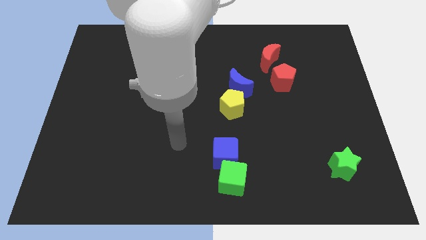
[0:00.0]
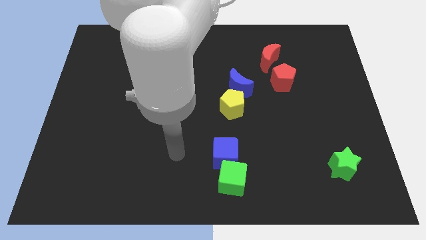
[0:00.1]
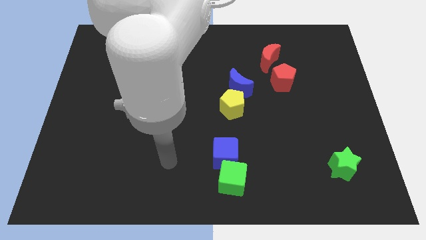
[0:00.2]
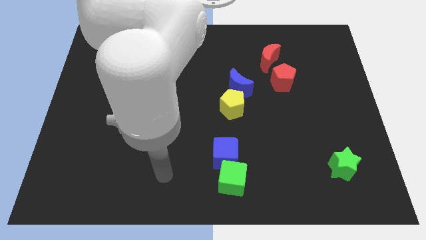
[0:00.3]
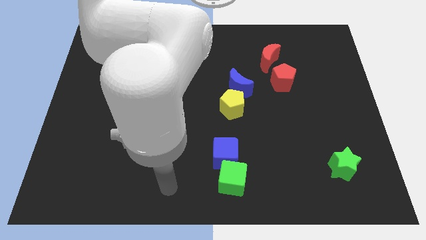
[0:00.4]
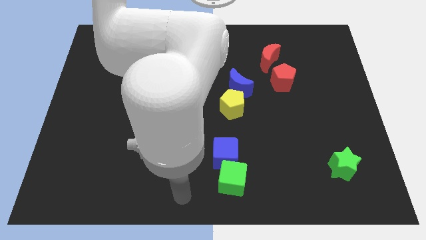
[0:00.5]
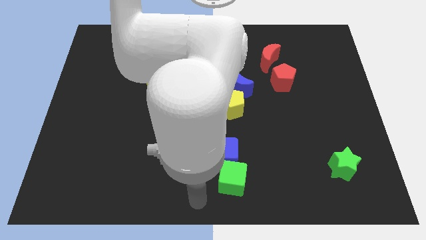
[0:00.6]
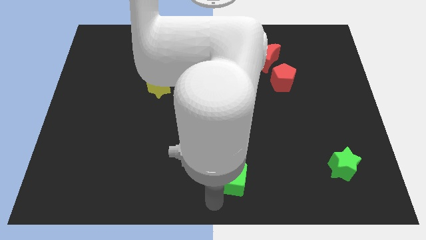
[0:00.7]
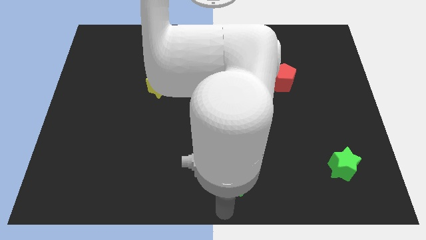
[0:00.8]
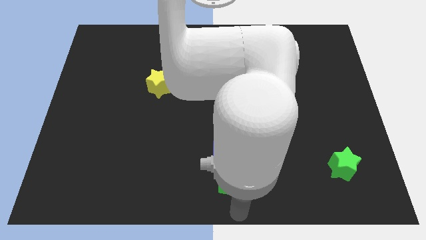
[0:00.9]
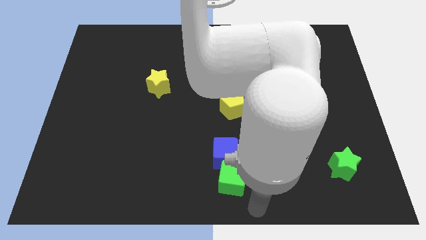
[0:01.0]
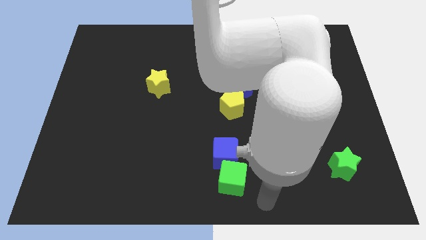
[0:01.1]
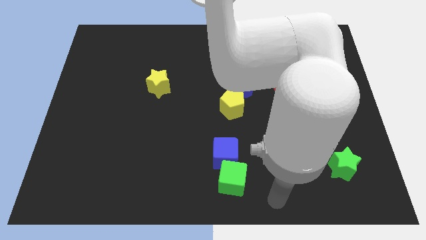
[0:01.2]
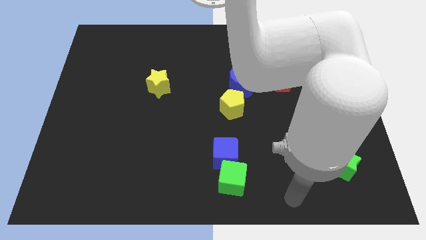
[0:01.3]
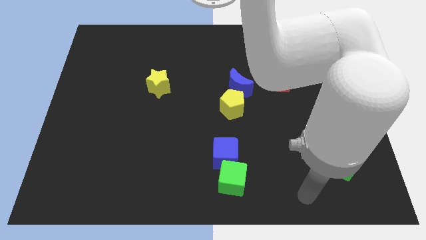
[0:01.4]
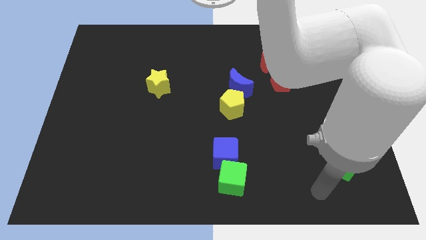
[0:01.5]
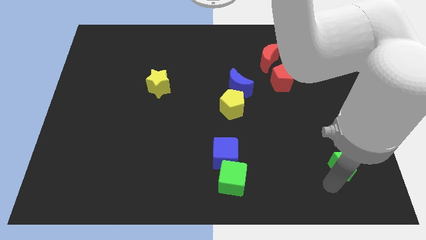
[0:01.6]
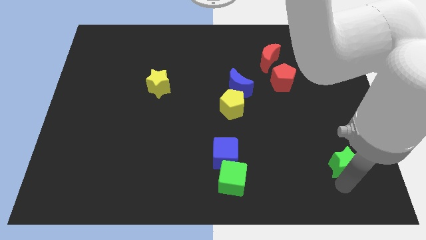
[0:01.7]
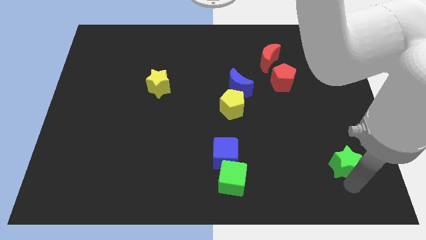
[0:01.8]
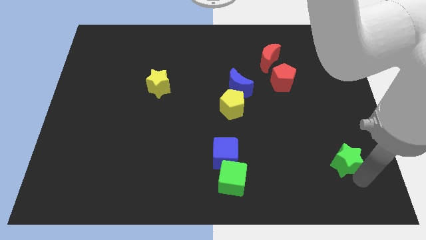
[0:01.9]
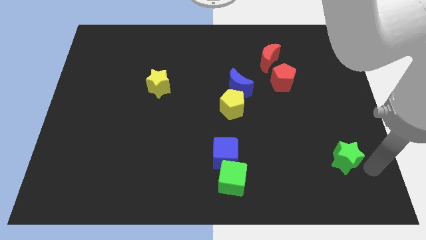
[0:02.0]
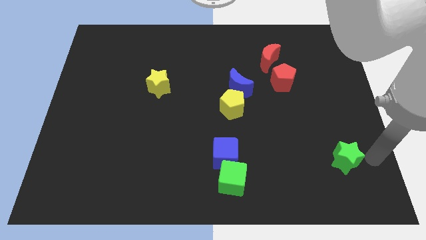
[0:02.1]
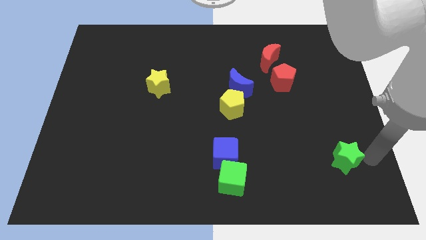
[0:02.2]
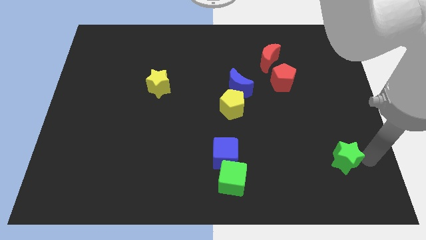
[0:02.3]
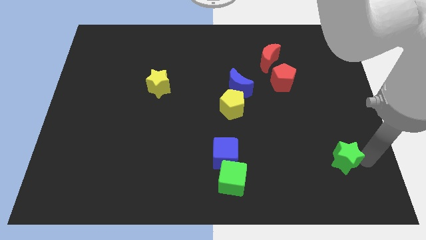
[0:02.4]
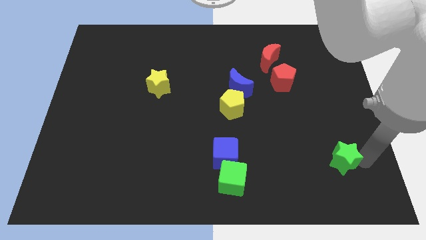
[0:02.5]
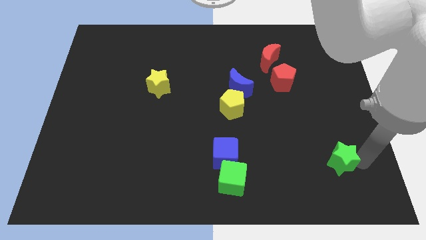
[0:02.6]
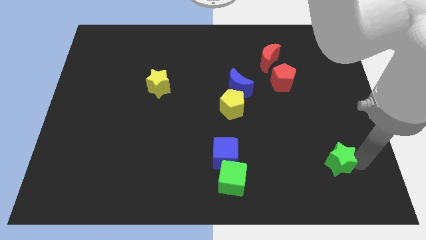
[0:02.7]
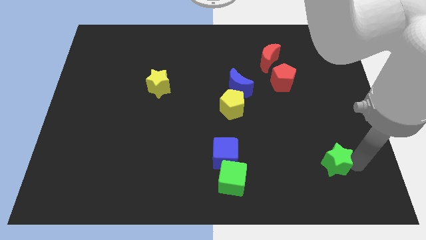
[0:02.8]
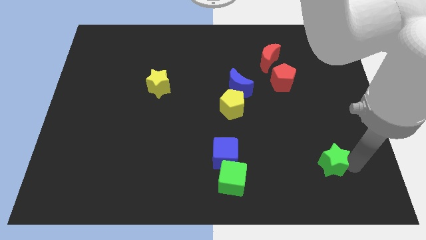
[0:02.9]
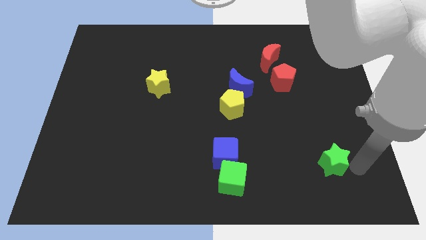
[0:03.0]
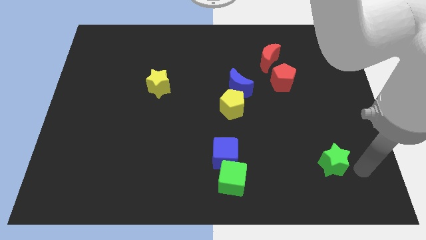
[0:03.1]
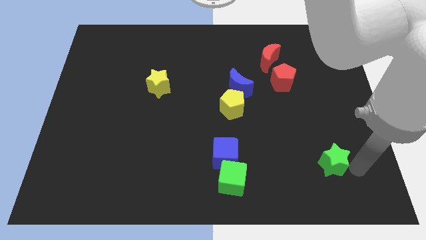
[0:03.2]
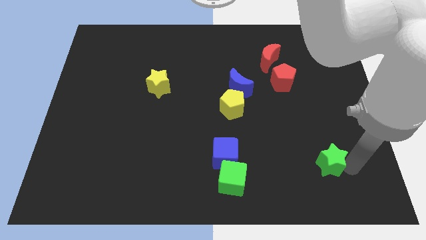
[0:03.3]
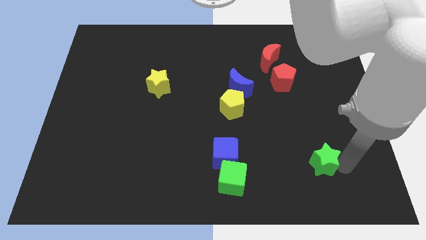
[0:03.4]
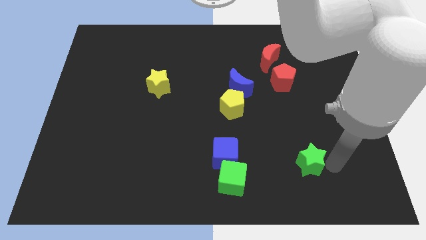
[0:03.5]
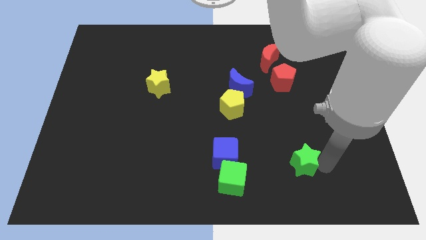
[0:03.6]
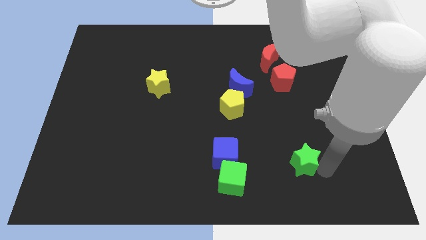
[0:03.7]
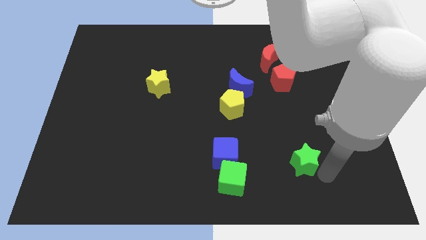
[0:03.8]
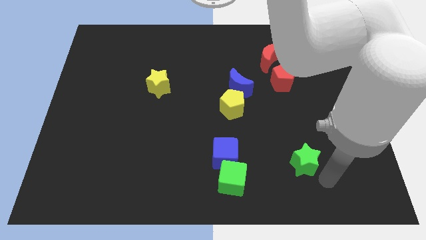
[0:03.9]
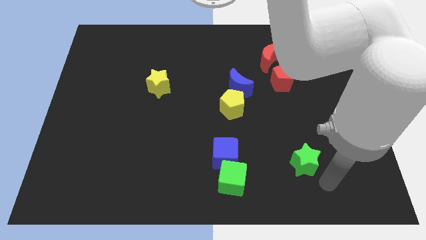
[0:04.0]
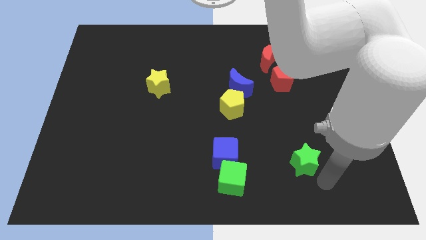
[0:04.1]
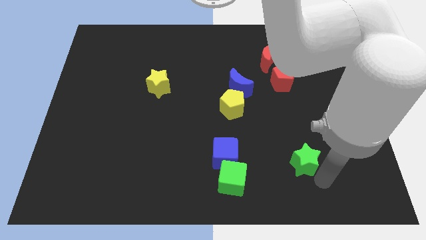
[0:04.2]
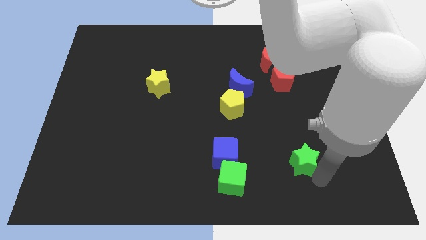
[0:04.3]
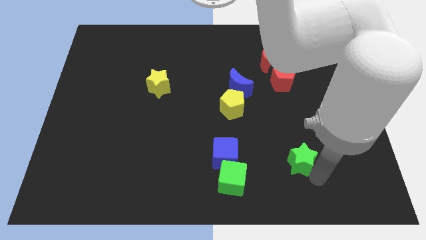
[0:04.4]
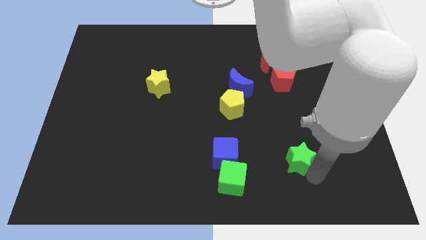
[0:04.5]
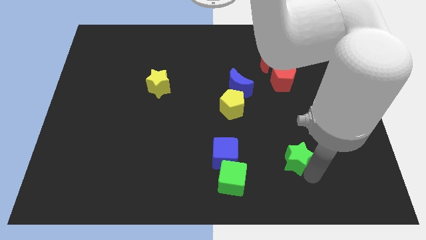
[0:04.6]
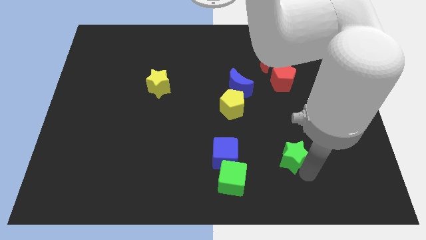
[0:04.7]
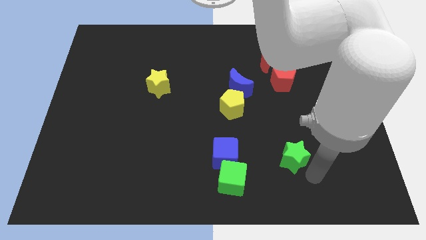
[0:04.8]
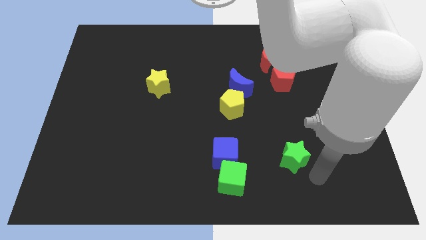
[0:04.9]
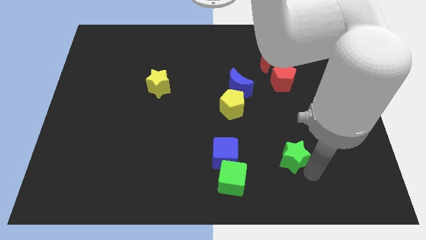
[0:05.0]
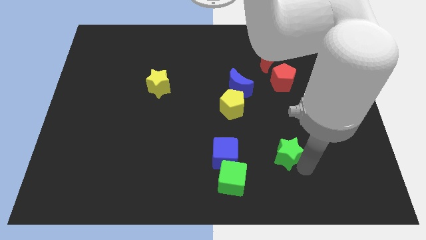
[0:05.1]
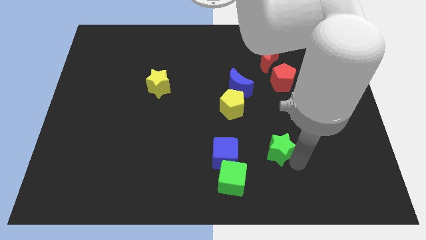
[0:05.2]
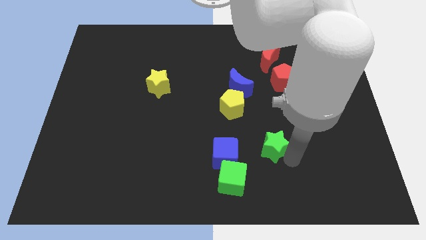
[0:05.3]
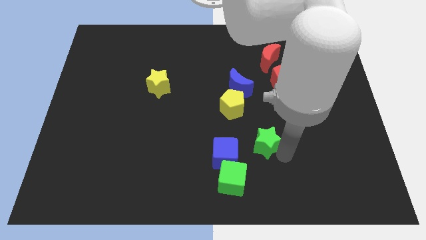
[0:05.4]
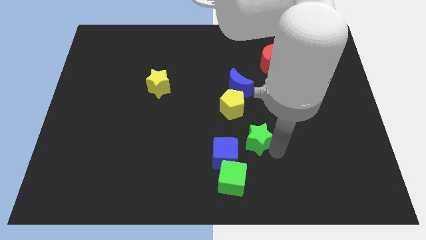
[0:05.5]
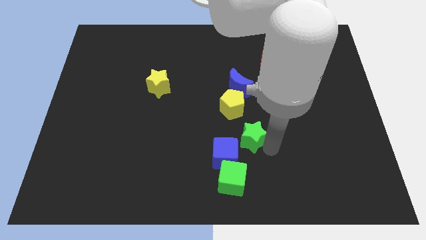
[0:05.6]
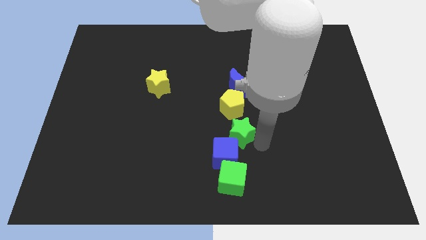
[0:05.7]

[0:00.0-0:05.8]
slide the green star to the center

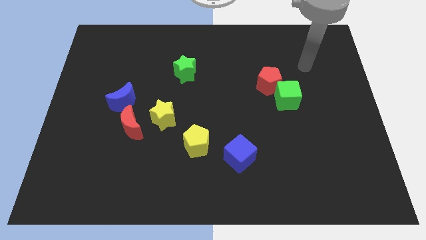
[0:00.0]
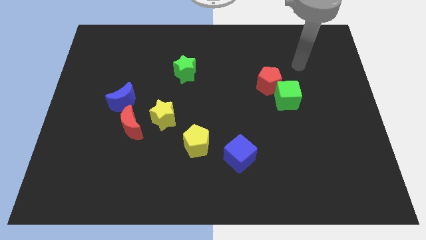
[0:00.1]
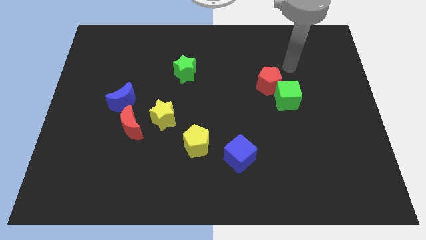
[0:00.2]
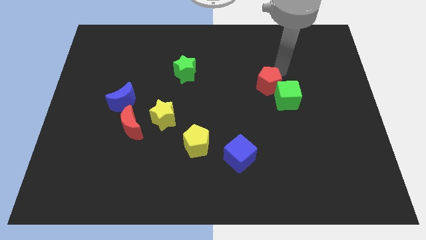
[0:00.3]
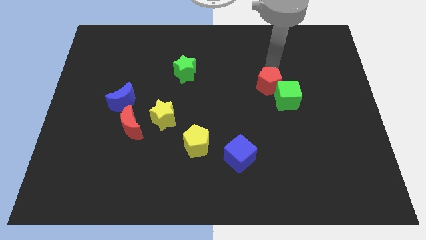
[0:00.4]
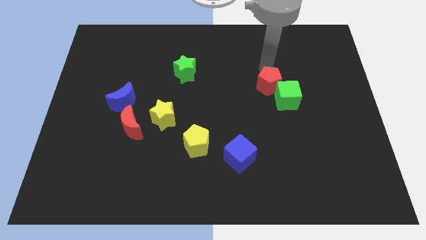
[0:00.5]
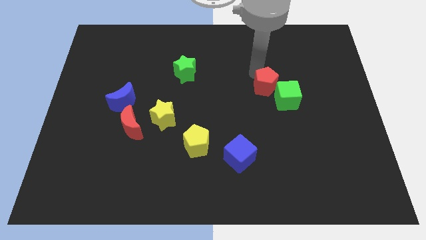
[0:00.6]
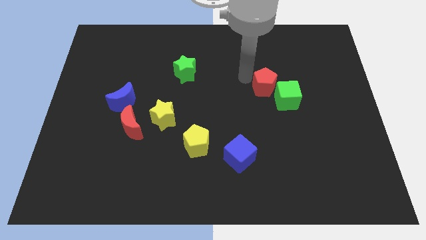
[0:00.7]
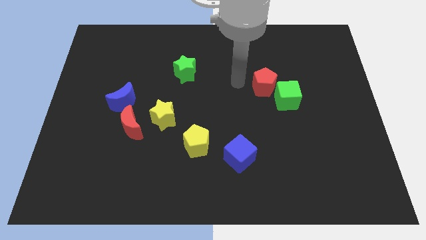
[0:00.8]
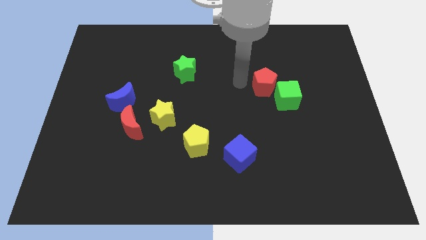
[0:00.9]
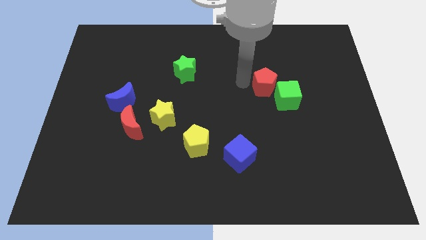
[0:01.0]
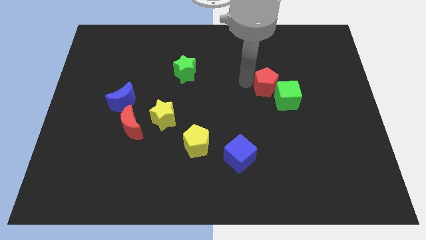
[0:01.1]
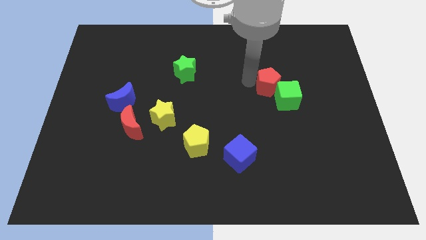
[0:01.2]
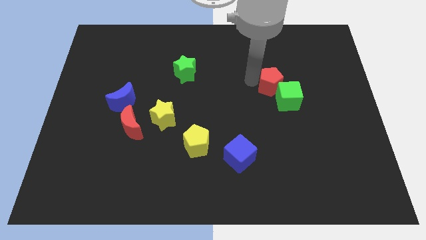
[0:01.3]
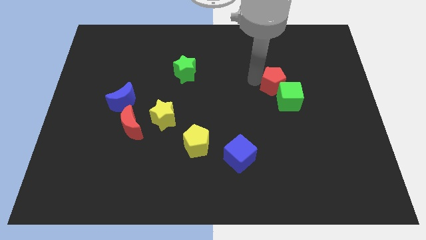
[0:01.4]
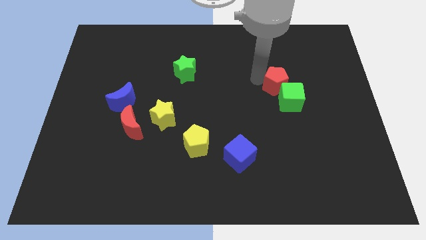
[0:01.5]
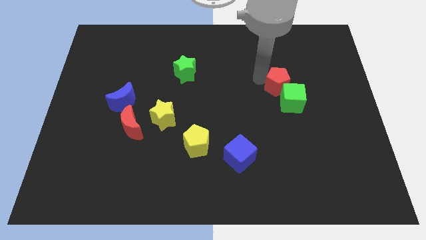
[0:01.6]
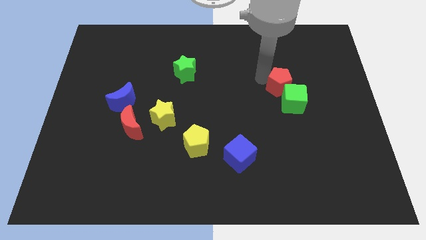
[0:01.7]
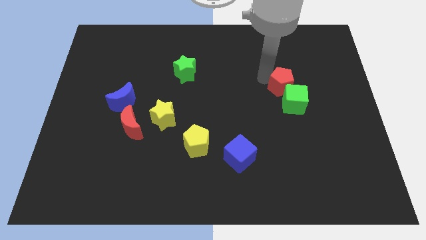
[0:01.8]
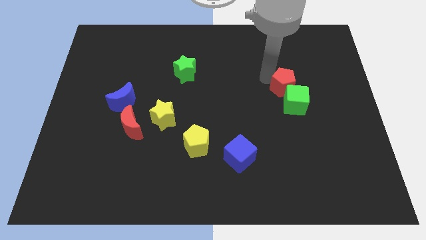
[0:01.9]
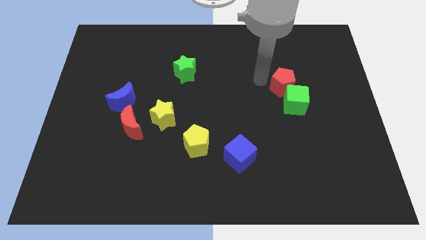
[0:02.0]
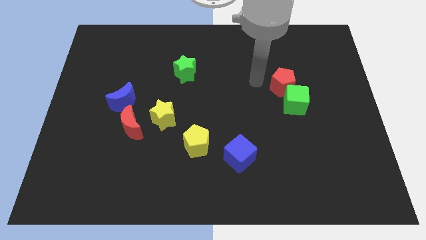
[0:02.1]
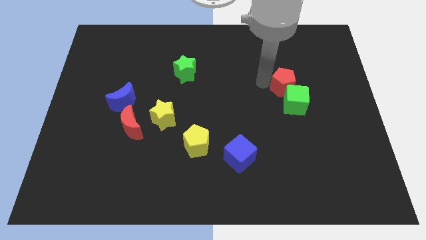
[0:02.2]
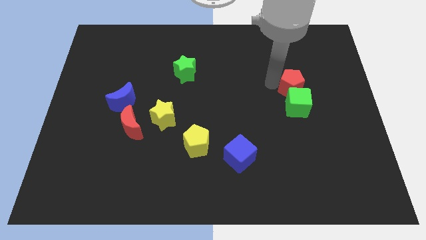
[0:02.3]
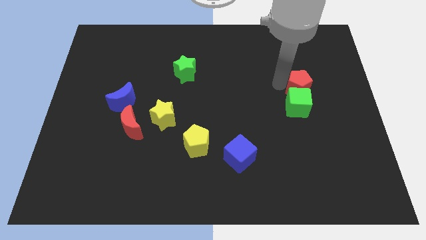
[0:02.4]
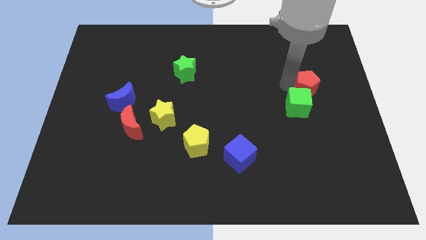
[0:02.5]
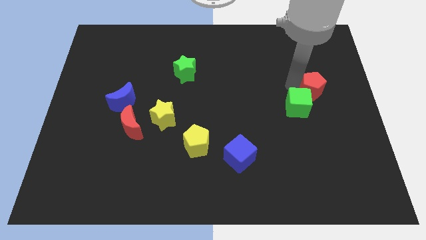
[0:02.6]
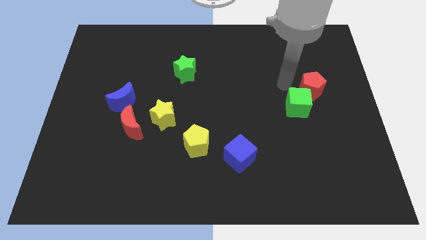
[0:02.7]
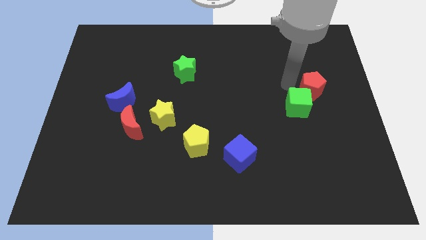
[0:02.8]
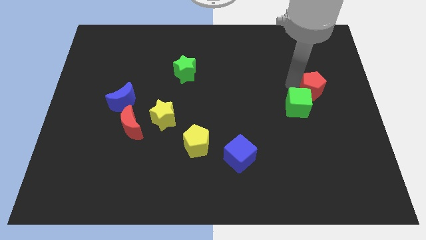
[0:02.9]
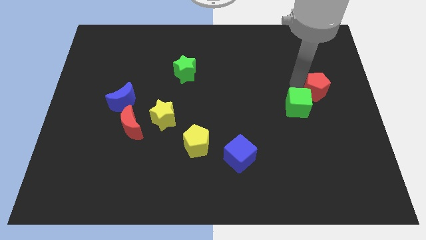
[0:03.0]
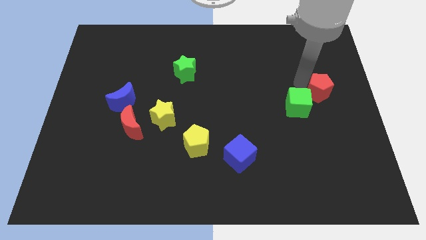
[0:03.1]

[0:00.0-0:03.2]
put the red pentagon to the center right
